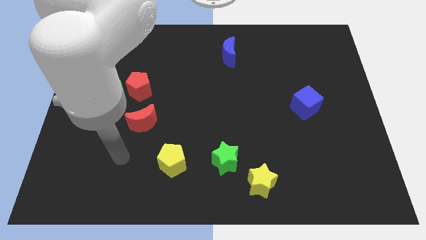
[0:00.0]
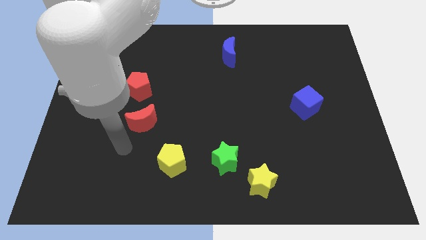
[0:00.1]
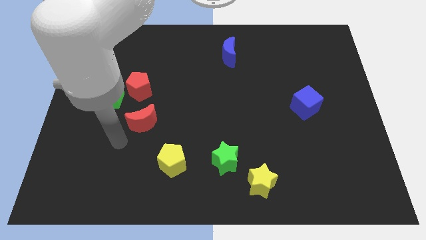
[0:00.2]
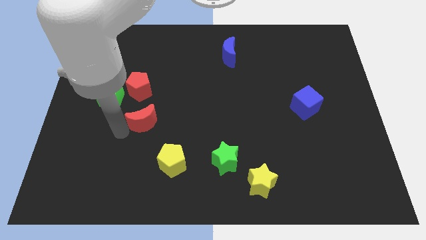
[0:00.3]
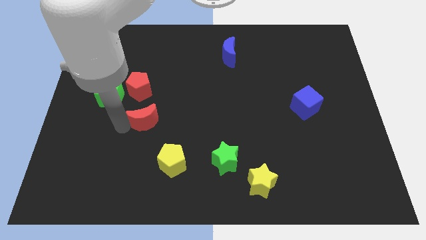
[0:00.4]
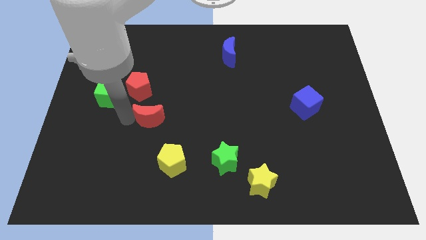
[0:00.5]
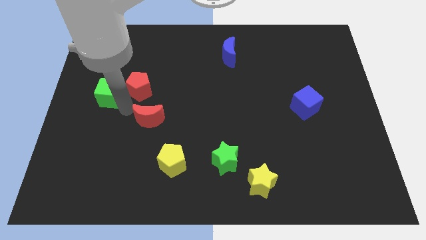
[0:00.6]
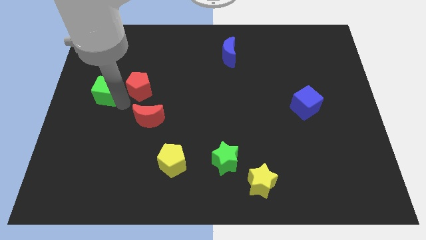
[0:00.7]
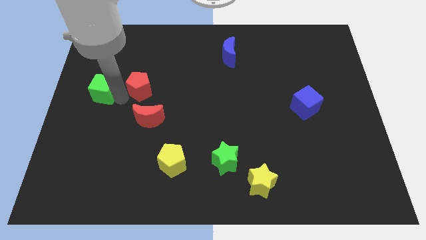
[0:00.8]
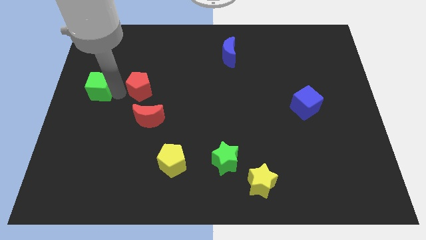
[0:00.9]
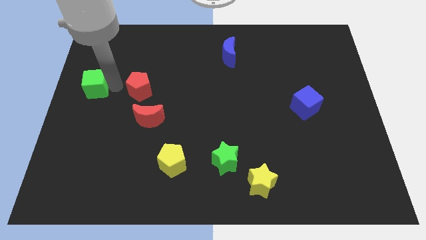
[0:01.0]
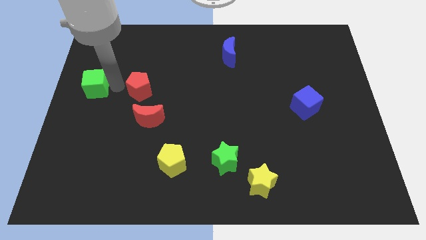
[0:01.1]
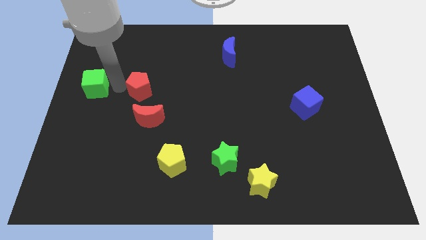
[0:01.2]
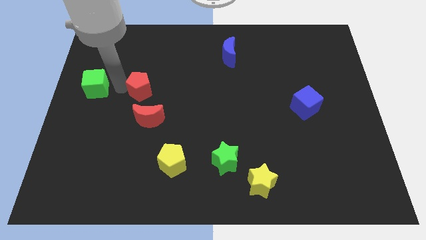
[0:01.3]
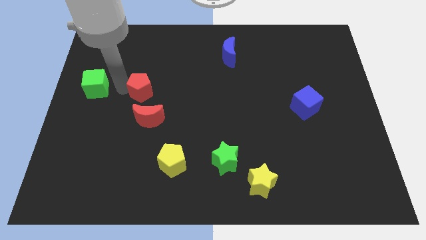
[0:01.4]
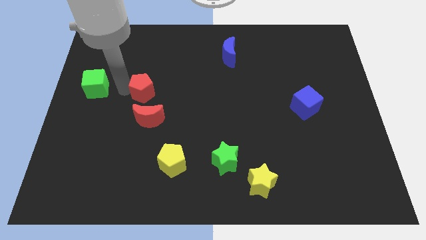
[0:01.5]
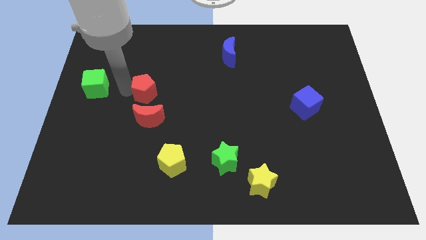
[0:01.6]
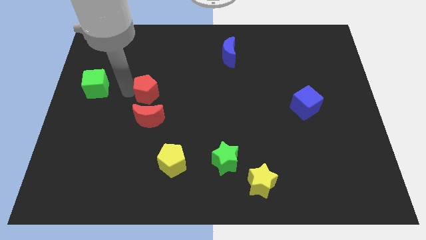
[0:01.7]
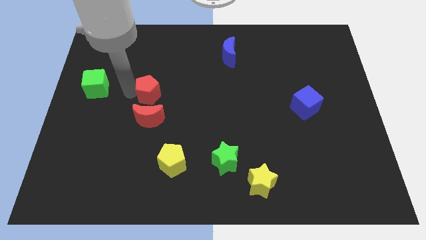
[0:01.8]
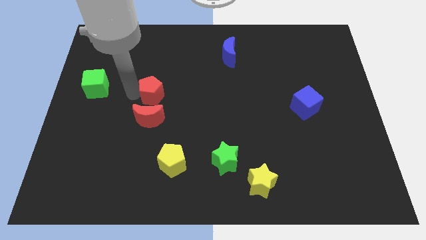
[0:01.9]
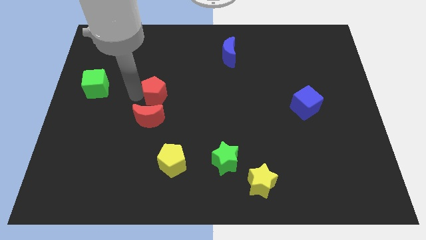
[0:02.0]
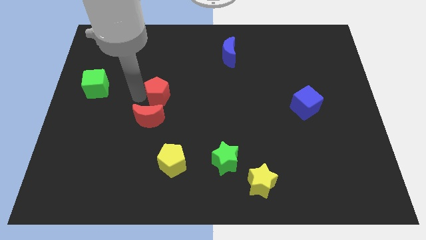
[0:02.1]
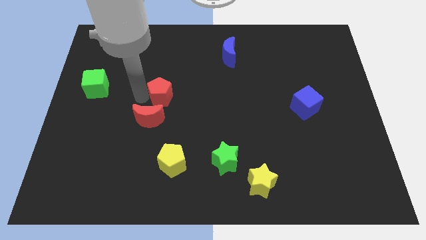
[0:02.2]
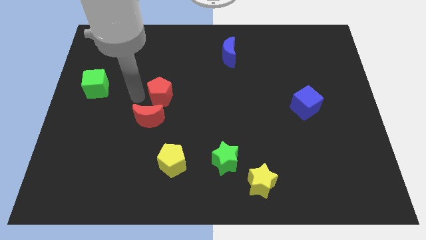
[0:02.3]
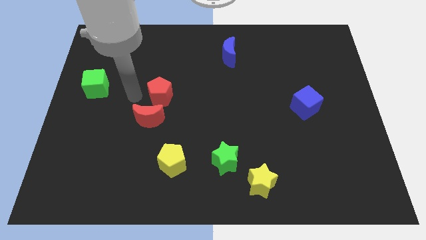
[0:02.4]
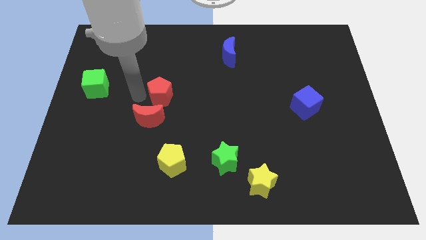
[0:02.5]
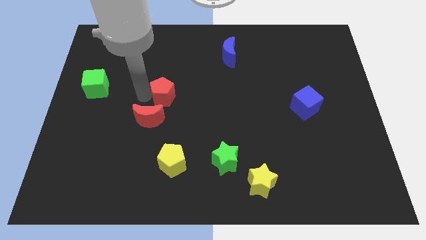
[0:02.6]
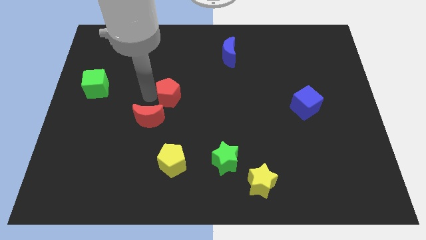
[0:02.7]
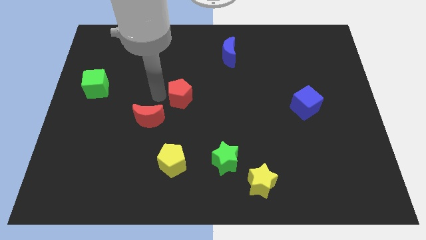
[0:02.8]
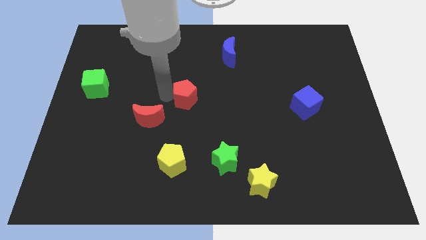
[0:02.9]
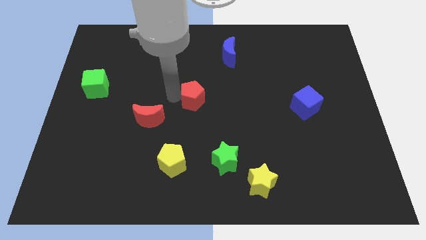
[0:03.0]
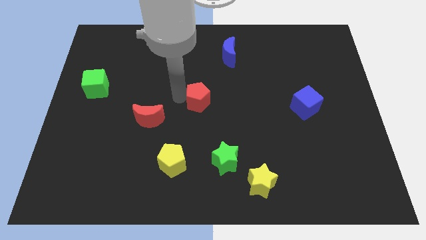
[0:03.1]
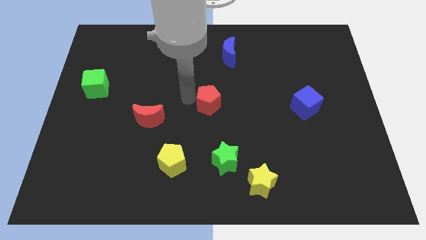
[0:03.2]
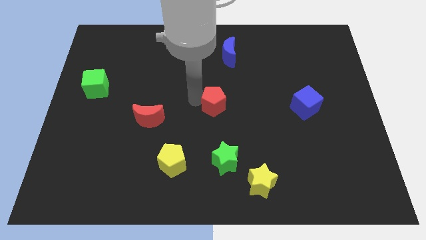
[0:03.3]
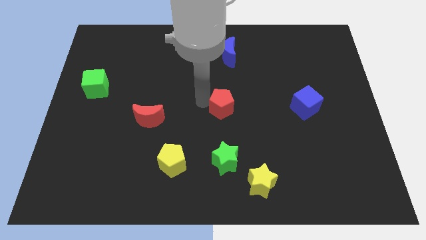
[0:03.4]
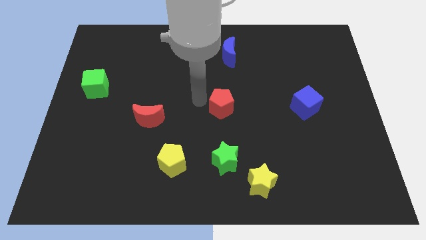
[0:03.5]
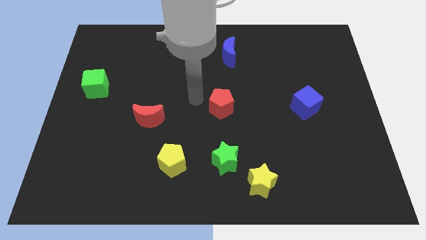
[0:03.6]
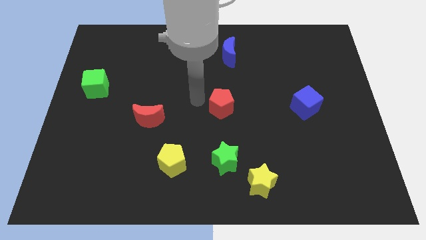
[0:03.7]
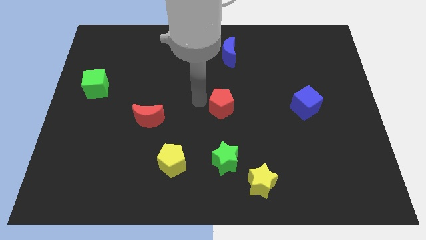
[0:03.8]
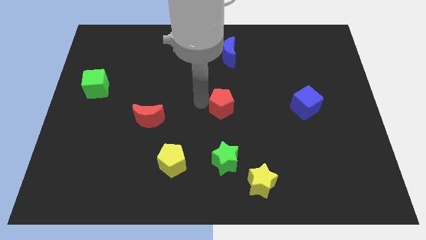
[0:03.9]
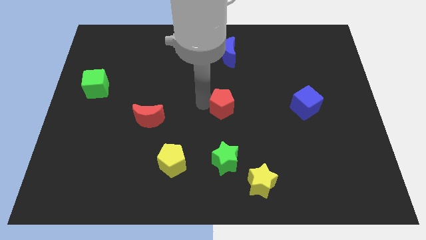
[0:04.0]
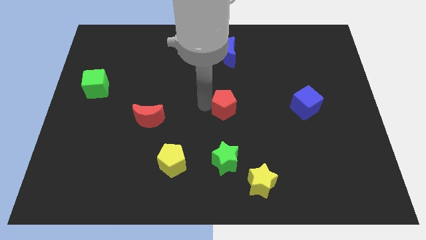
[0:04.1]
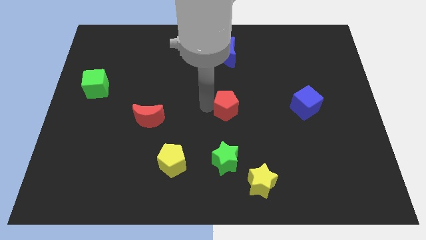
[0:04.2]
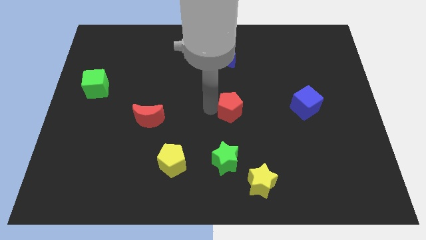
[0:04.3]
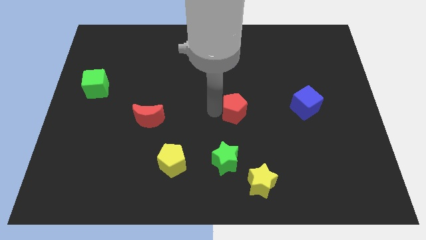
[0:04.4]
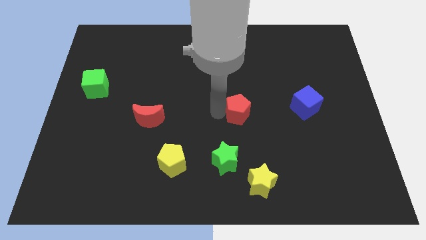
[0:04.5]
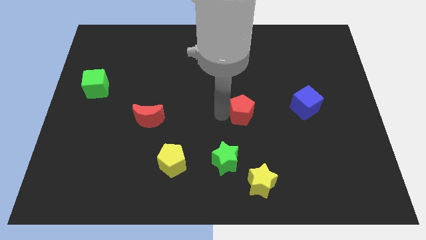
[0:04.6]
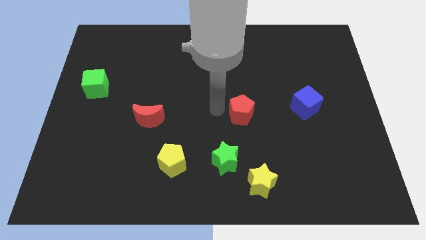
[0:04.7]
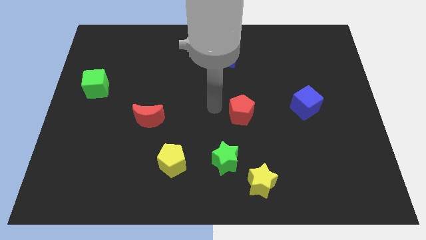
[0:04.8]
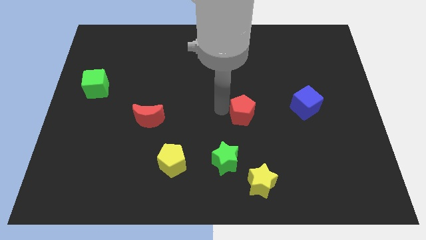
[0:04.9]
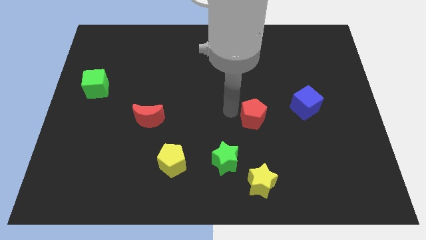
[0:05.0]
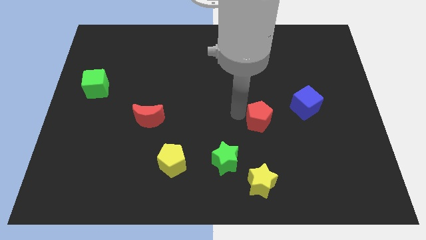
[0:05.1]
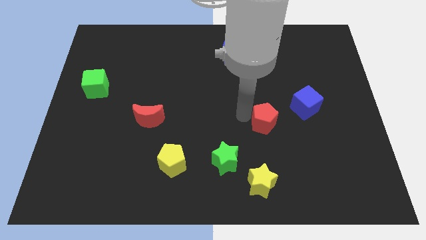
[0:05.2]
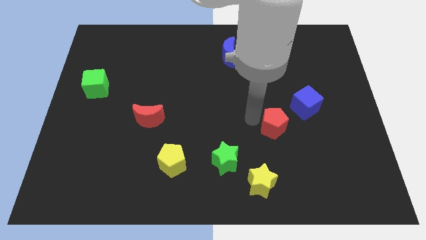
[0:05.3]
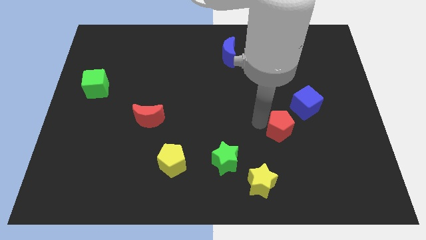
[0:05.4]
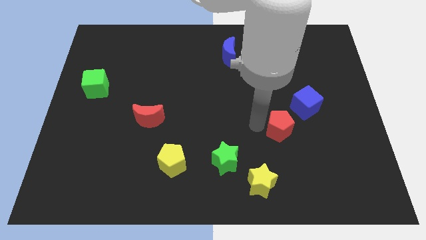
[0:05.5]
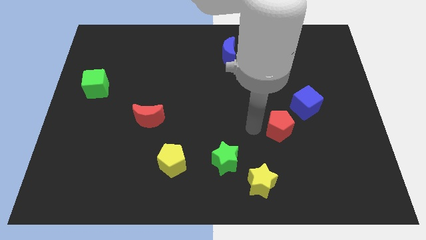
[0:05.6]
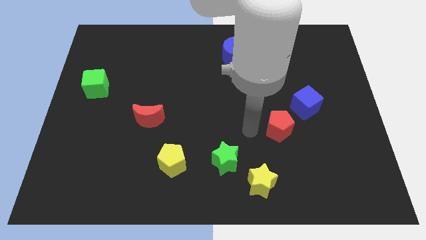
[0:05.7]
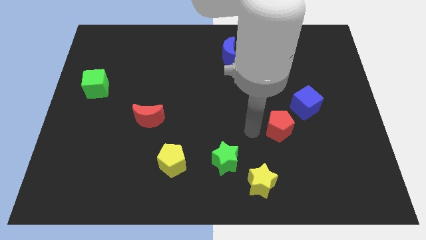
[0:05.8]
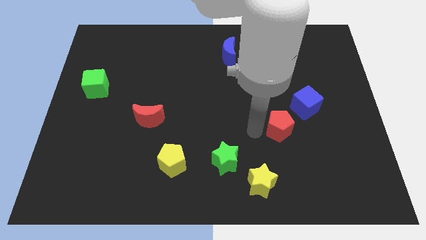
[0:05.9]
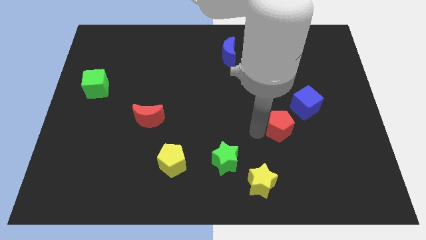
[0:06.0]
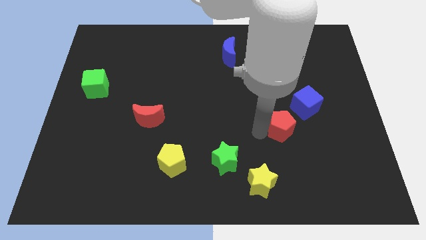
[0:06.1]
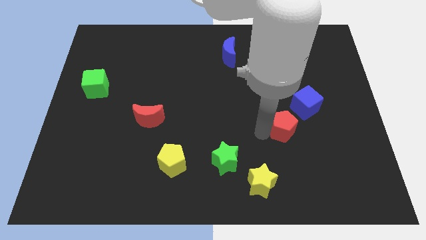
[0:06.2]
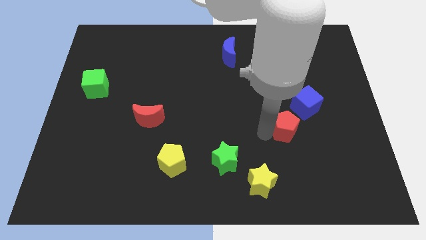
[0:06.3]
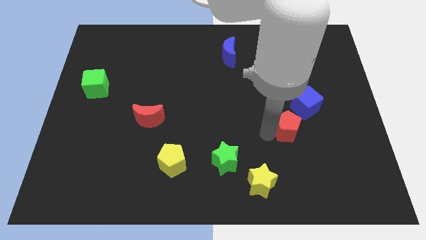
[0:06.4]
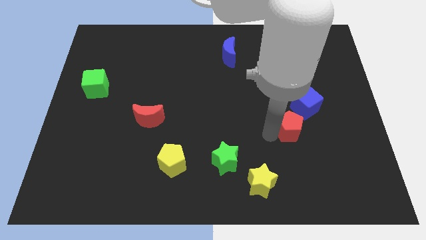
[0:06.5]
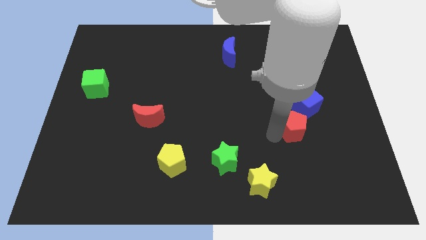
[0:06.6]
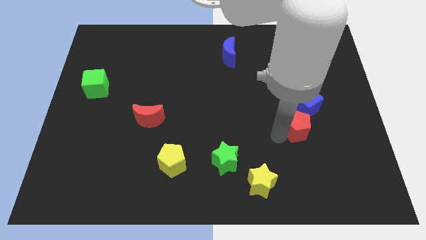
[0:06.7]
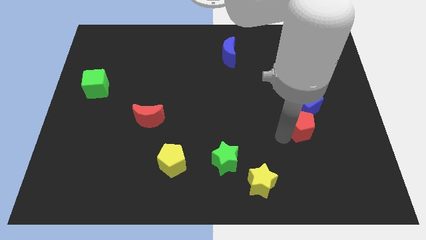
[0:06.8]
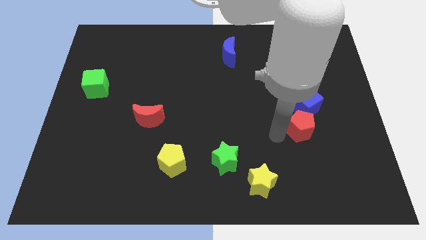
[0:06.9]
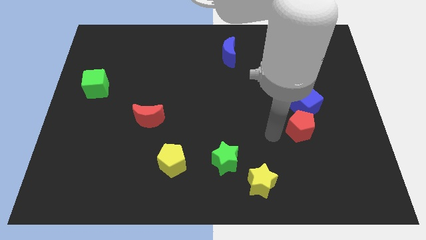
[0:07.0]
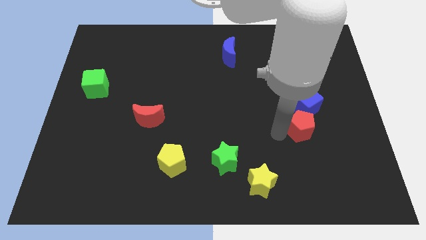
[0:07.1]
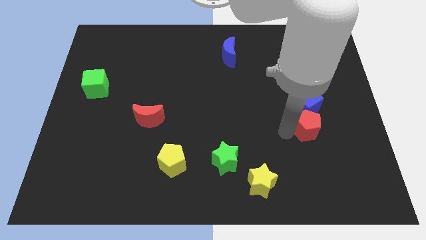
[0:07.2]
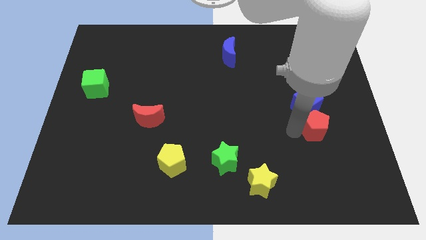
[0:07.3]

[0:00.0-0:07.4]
slide the red pentagon diagonally down and to the right of the blue cube

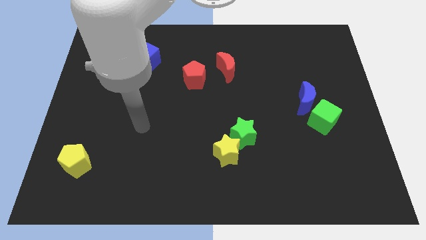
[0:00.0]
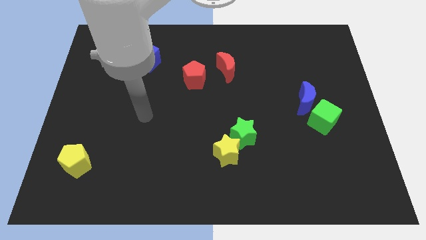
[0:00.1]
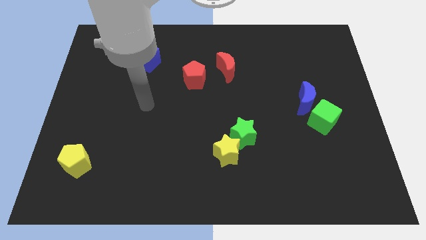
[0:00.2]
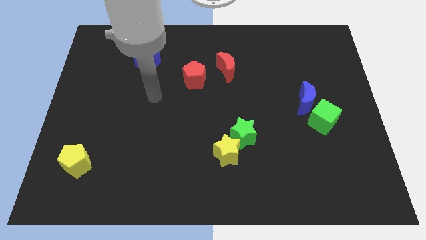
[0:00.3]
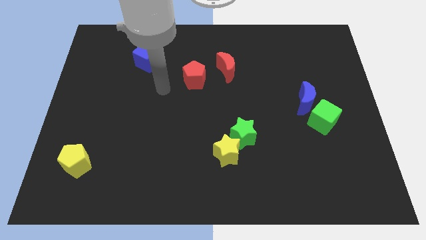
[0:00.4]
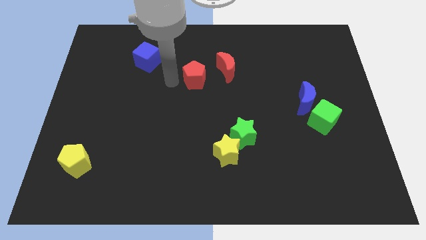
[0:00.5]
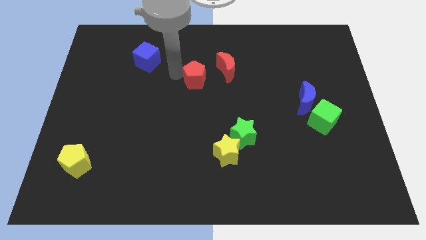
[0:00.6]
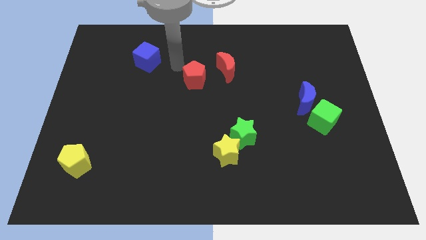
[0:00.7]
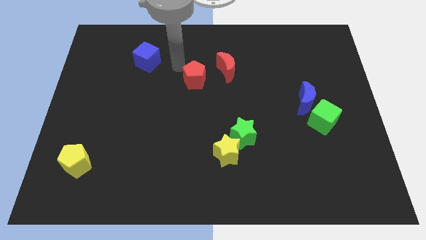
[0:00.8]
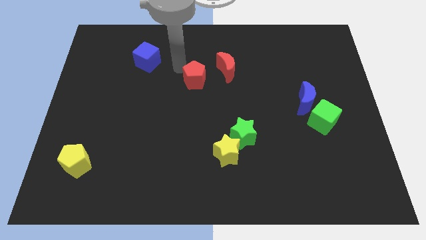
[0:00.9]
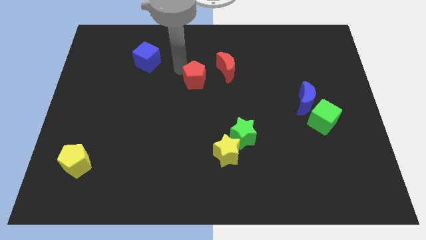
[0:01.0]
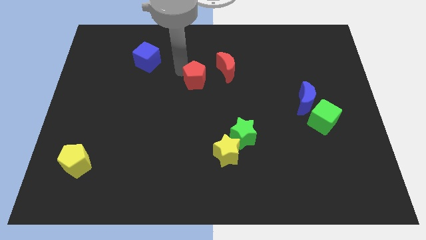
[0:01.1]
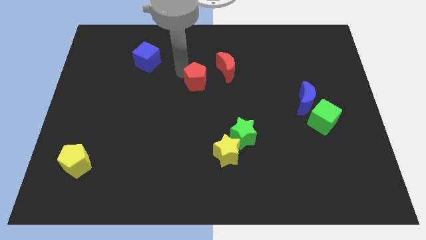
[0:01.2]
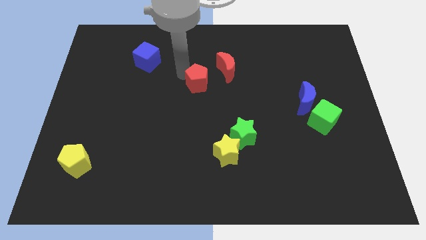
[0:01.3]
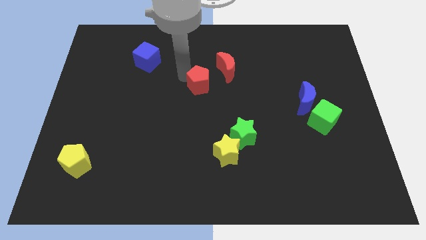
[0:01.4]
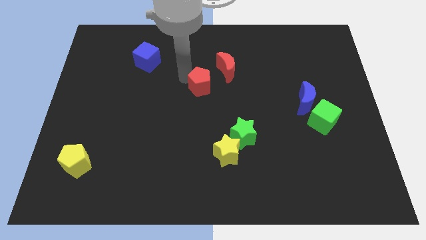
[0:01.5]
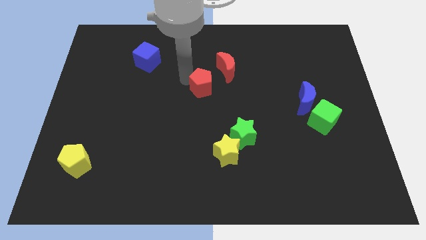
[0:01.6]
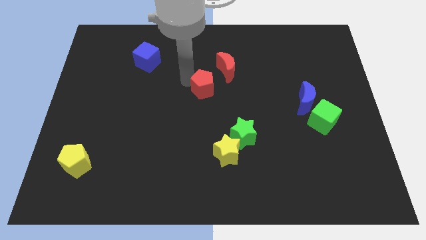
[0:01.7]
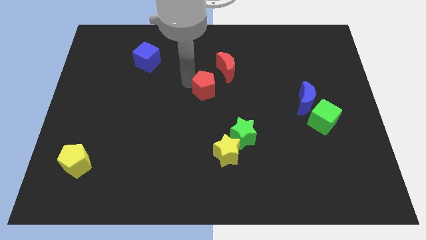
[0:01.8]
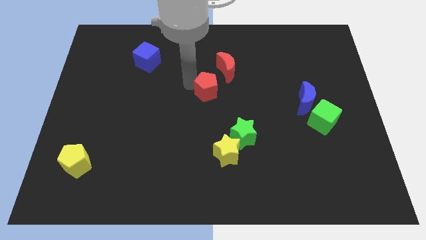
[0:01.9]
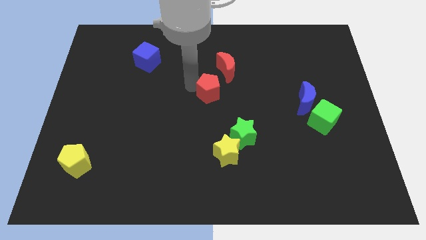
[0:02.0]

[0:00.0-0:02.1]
move the red pentagon below the red moon
